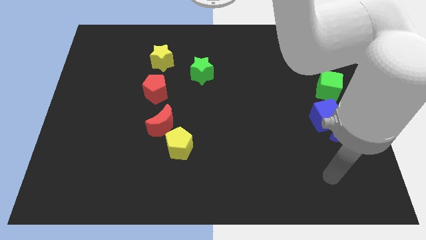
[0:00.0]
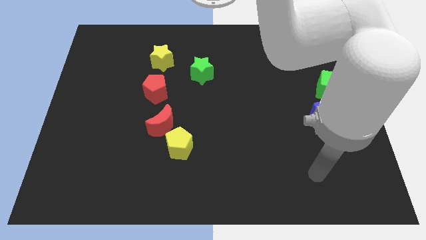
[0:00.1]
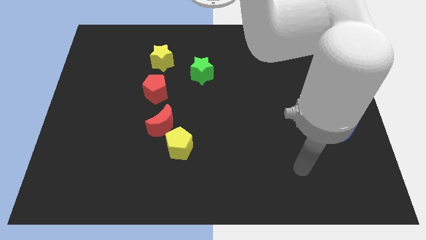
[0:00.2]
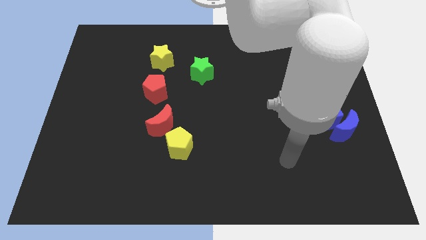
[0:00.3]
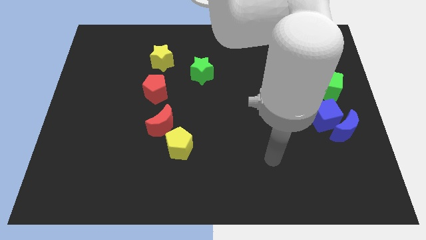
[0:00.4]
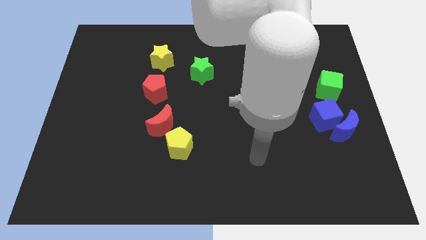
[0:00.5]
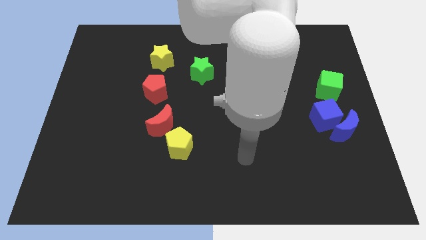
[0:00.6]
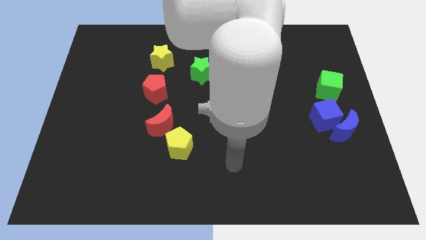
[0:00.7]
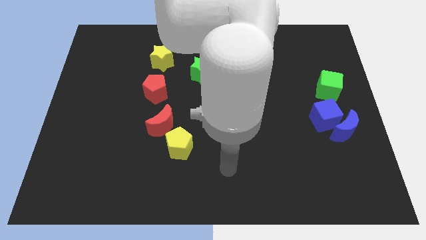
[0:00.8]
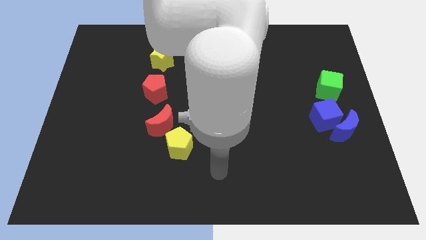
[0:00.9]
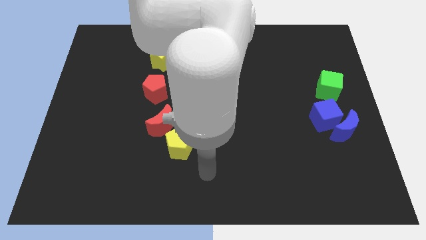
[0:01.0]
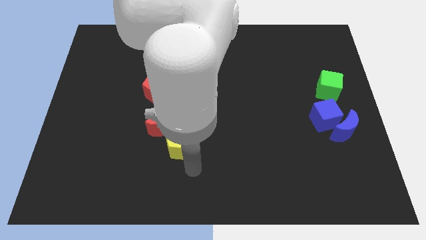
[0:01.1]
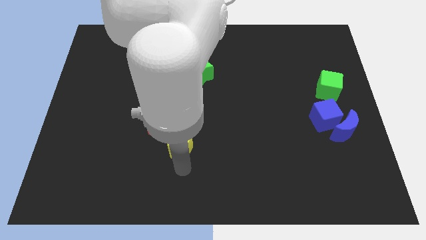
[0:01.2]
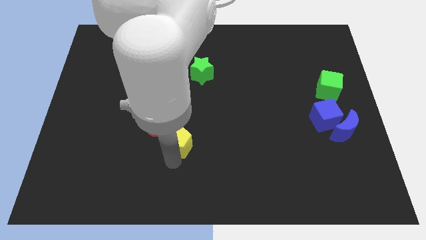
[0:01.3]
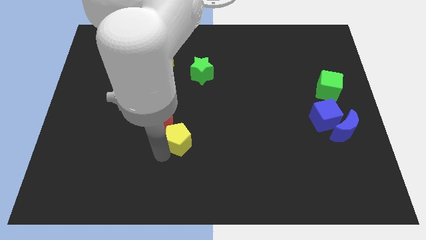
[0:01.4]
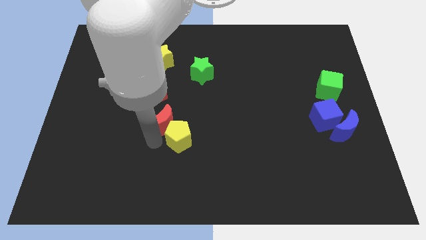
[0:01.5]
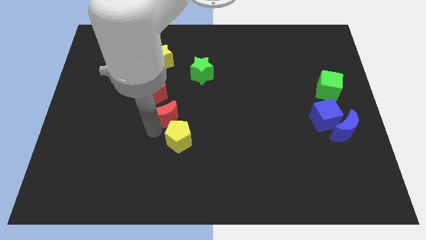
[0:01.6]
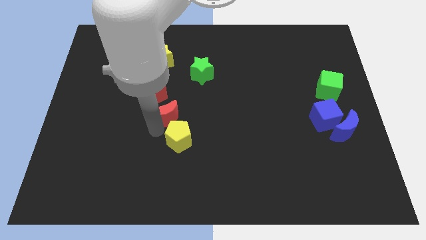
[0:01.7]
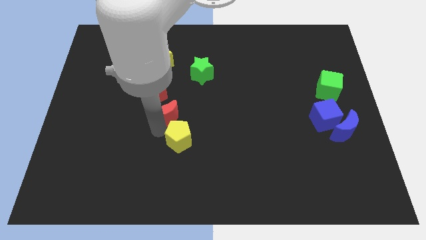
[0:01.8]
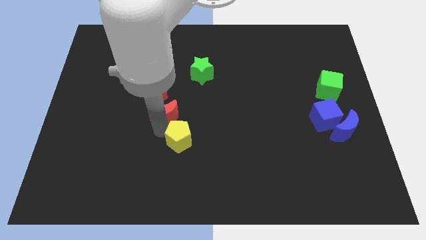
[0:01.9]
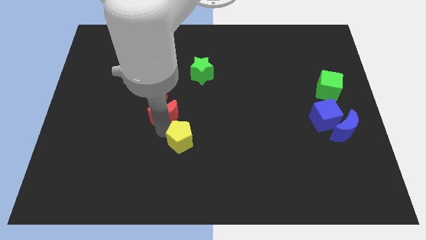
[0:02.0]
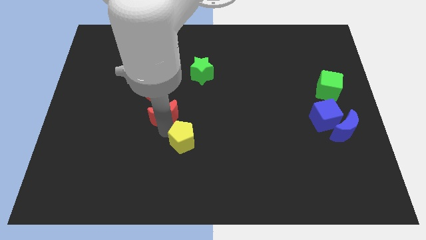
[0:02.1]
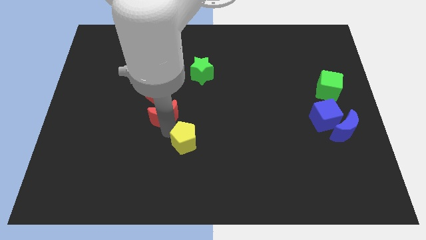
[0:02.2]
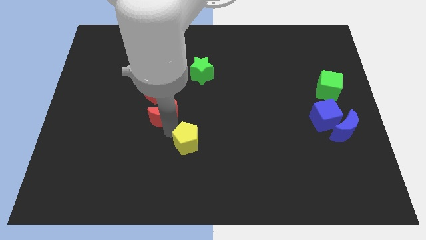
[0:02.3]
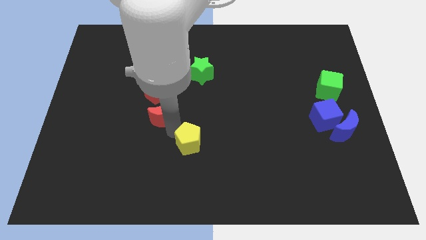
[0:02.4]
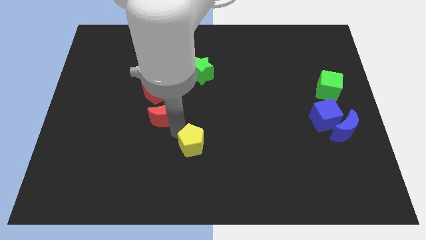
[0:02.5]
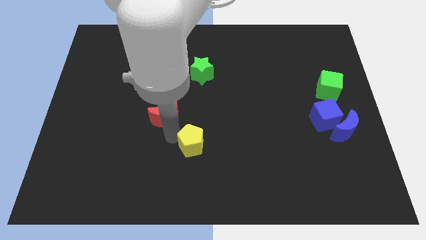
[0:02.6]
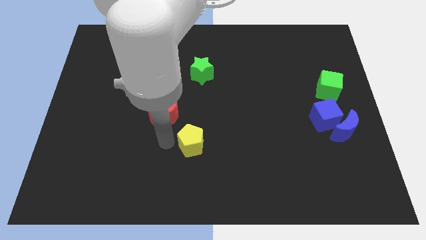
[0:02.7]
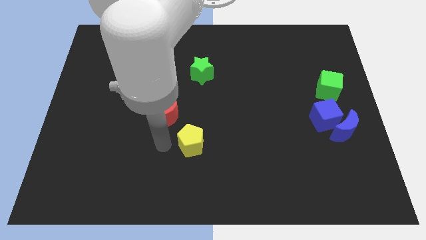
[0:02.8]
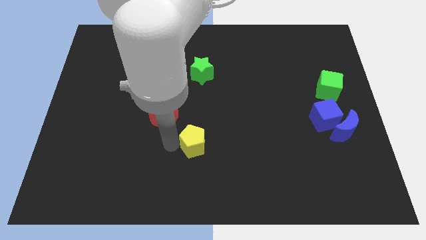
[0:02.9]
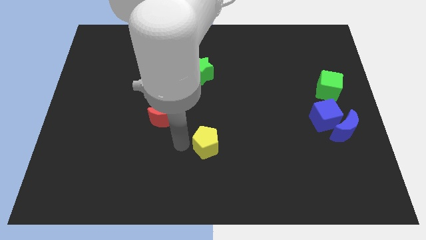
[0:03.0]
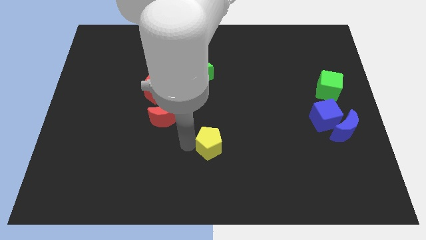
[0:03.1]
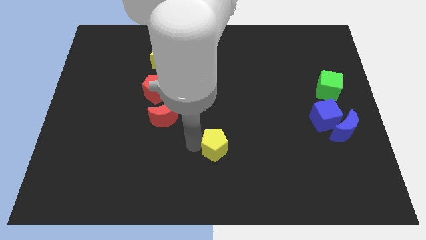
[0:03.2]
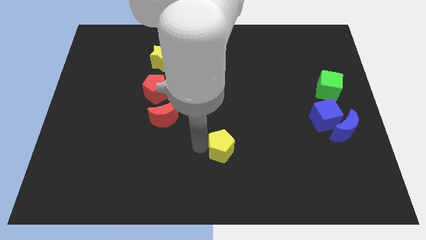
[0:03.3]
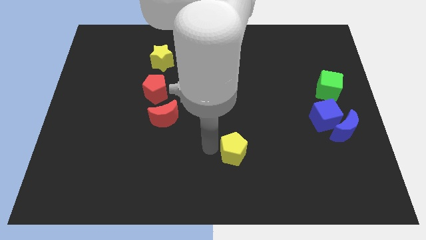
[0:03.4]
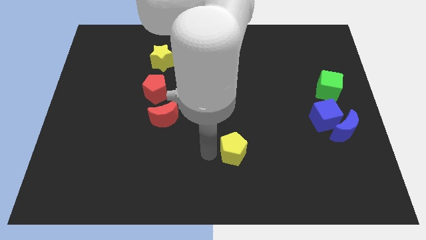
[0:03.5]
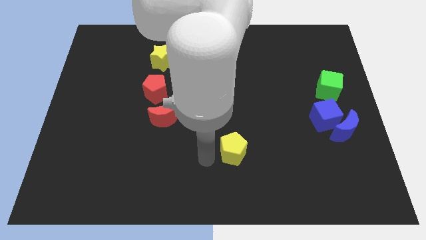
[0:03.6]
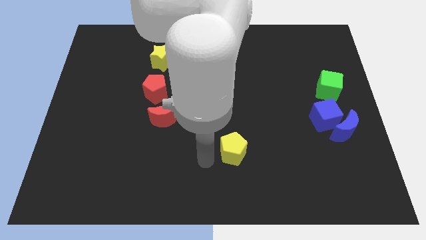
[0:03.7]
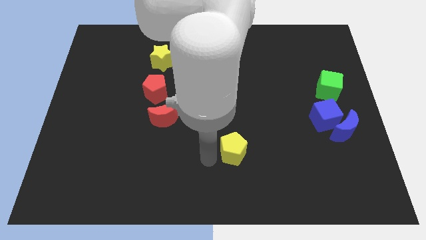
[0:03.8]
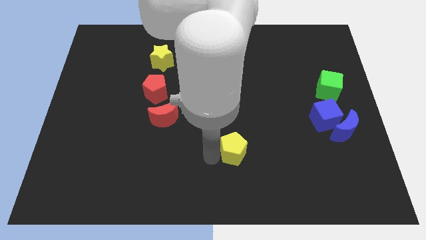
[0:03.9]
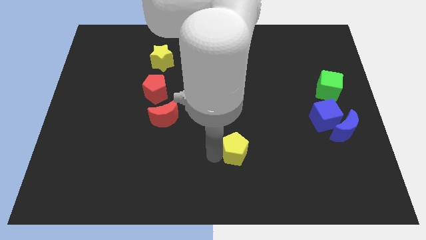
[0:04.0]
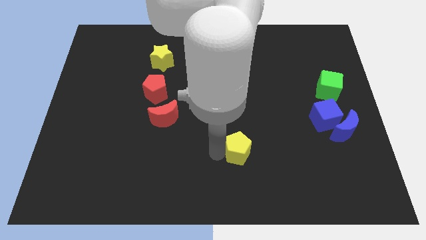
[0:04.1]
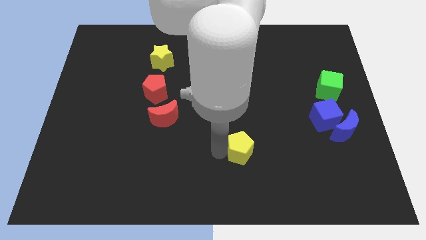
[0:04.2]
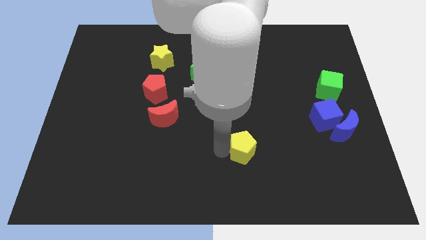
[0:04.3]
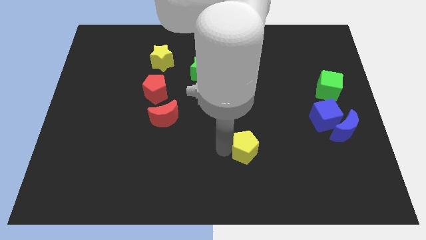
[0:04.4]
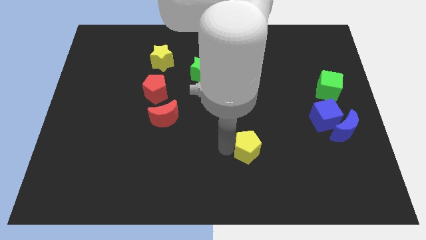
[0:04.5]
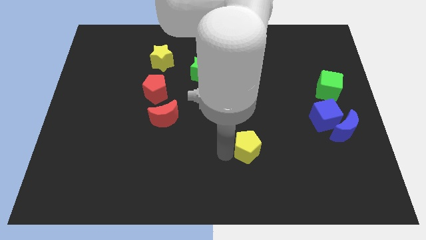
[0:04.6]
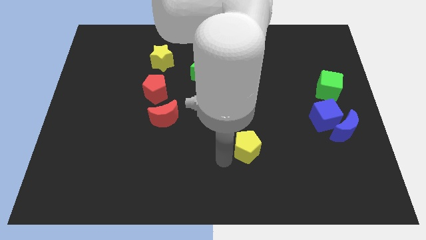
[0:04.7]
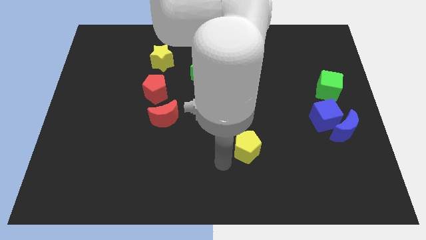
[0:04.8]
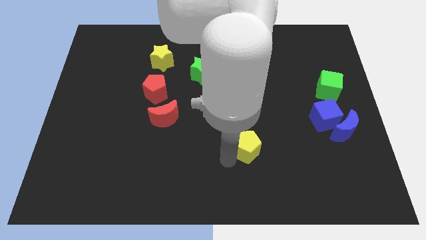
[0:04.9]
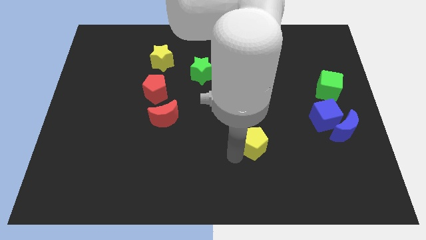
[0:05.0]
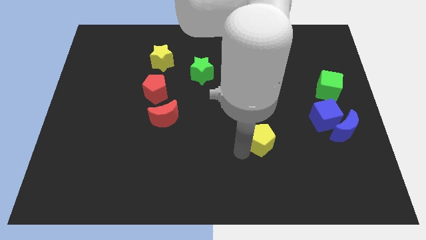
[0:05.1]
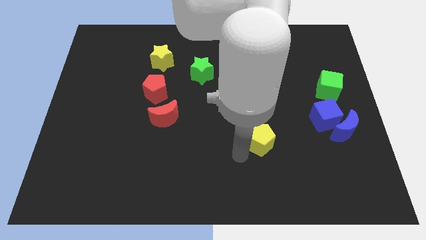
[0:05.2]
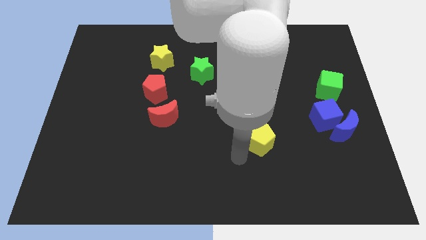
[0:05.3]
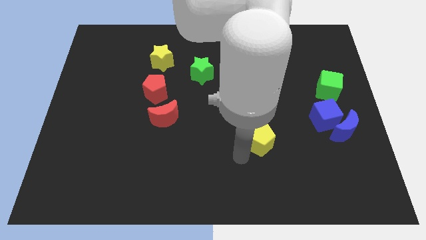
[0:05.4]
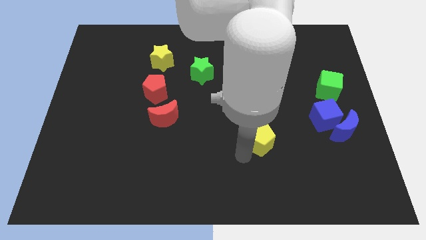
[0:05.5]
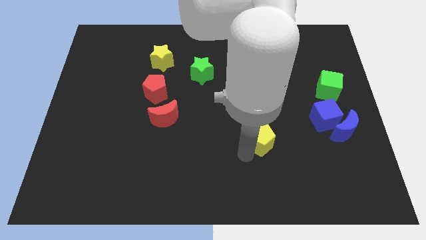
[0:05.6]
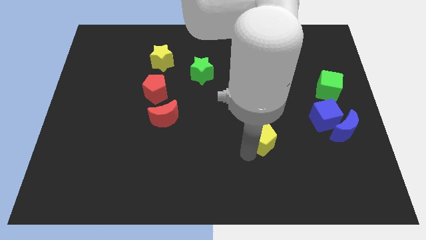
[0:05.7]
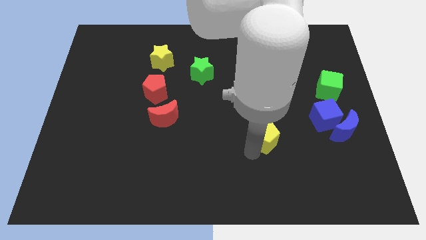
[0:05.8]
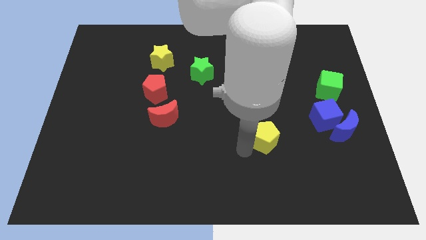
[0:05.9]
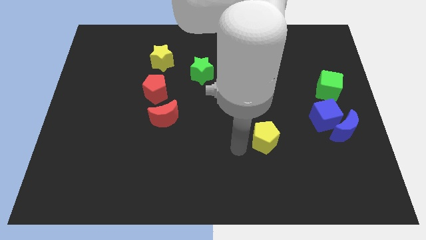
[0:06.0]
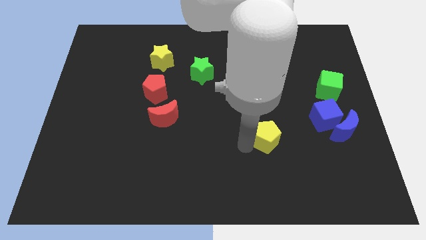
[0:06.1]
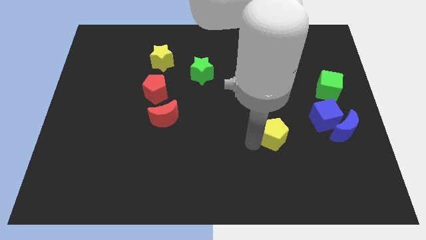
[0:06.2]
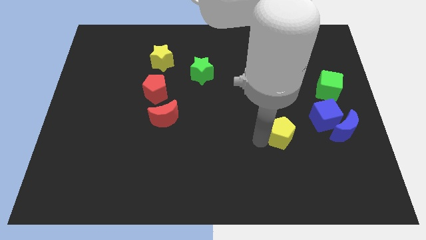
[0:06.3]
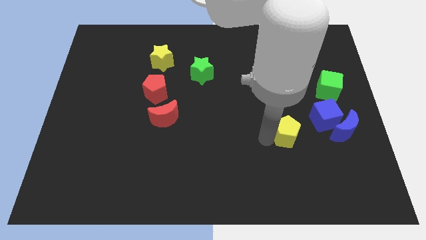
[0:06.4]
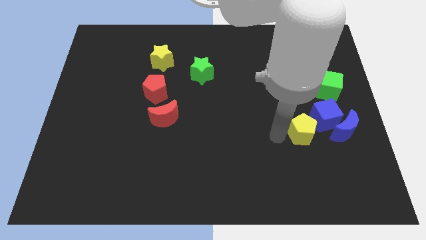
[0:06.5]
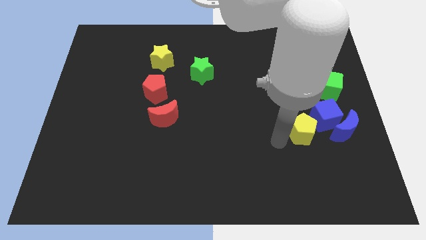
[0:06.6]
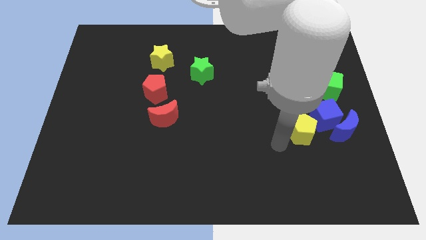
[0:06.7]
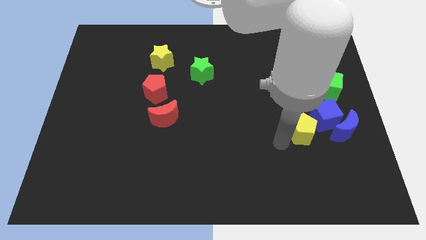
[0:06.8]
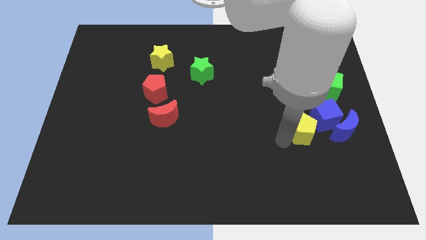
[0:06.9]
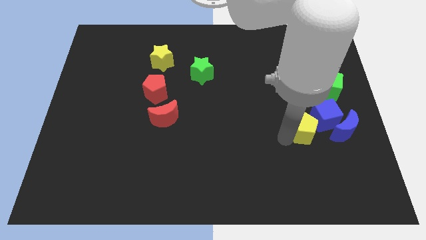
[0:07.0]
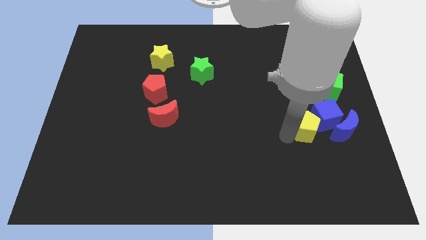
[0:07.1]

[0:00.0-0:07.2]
push the yellow pentagon next to the blue cube

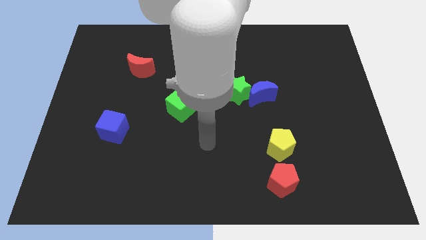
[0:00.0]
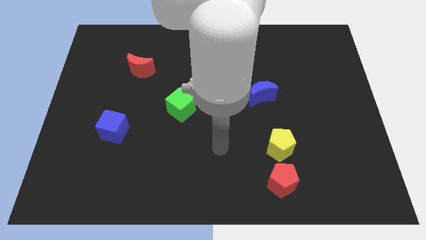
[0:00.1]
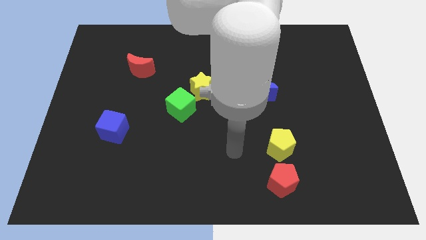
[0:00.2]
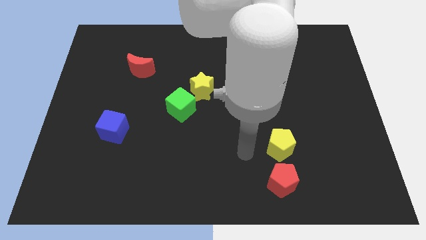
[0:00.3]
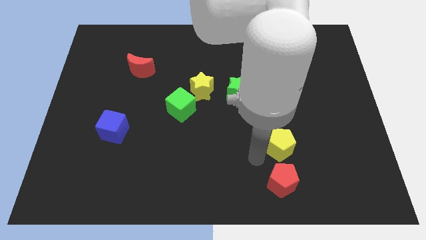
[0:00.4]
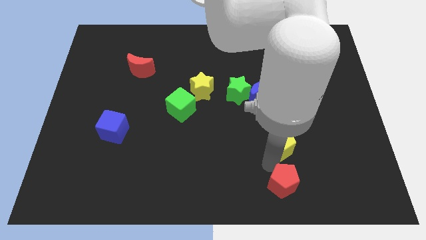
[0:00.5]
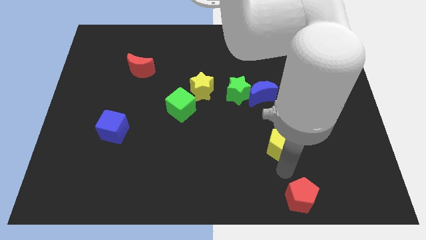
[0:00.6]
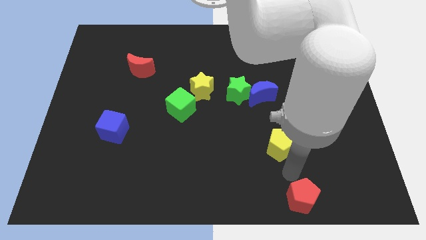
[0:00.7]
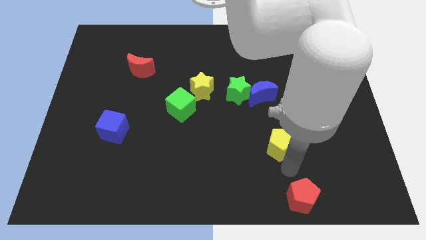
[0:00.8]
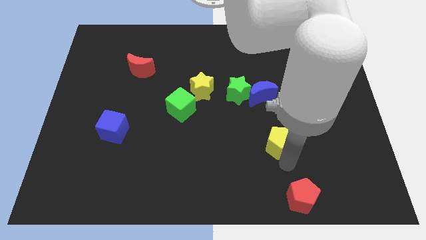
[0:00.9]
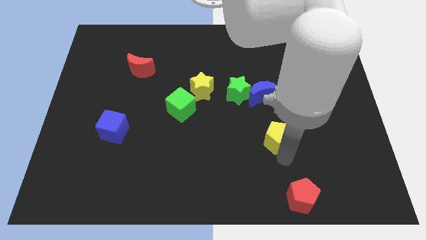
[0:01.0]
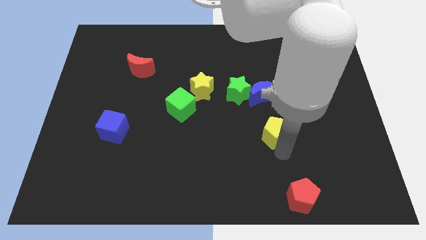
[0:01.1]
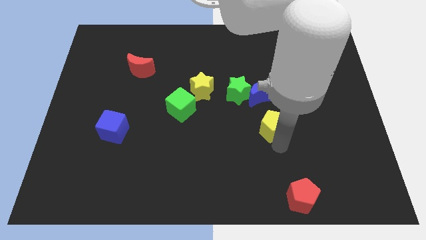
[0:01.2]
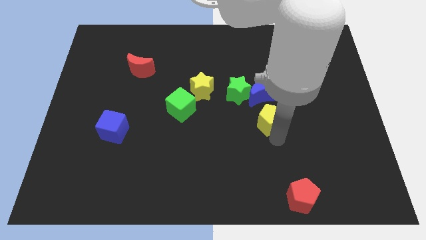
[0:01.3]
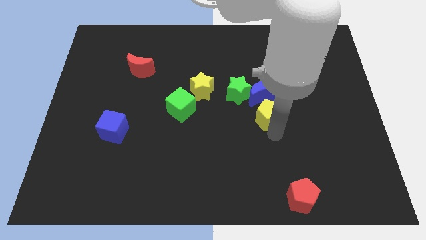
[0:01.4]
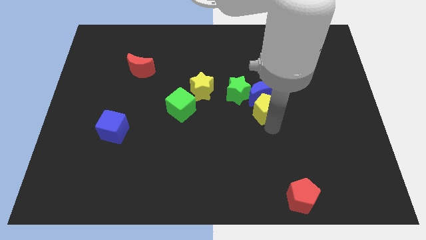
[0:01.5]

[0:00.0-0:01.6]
slide the yellow pentagon next to the blue moon
